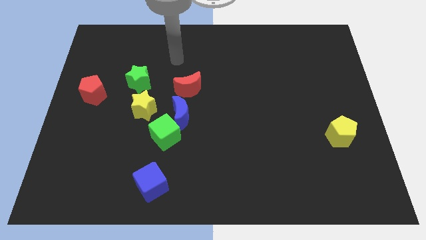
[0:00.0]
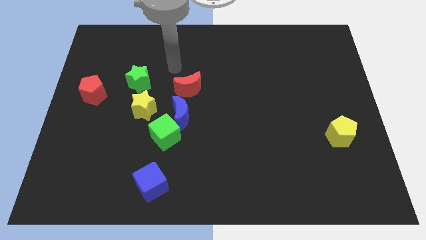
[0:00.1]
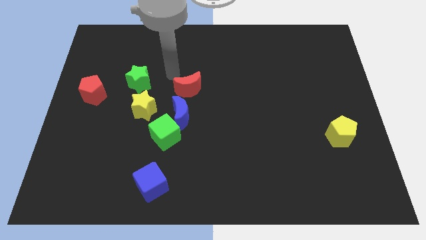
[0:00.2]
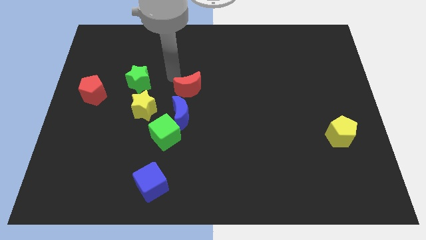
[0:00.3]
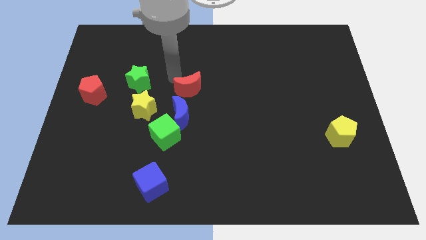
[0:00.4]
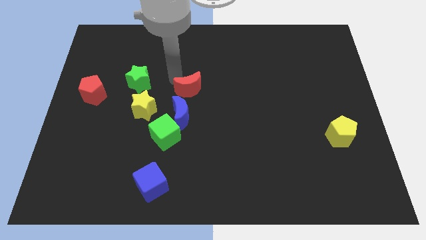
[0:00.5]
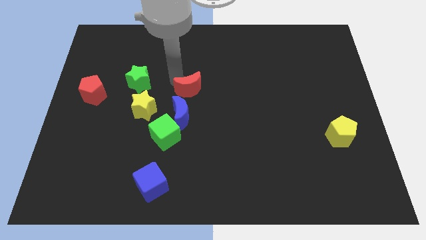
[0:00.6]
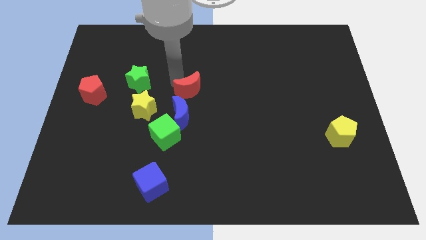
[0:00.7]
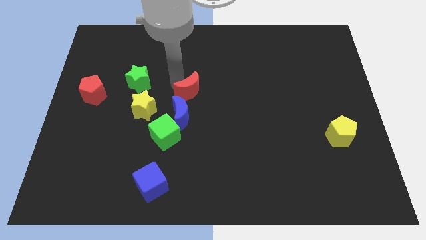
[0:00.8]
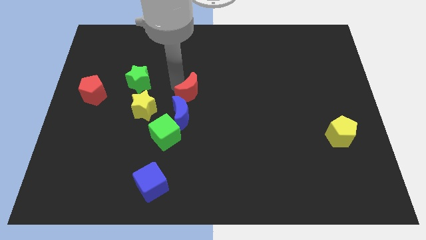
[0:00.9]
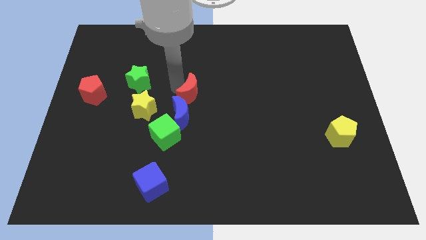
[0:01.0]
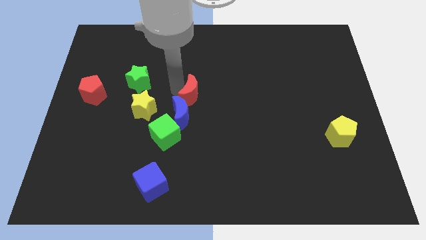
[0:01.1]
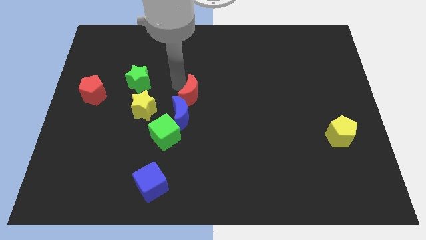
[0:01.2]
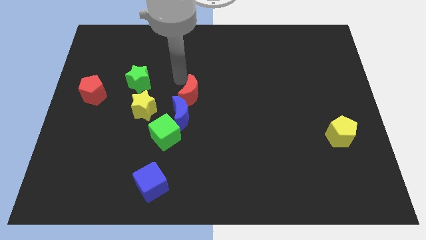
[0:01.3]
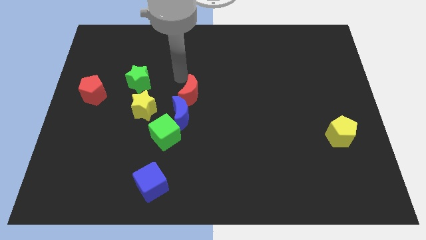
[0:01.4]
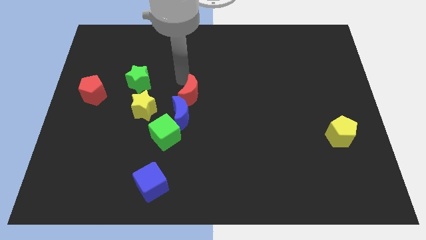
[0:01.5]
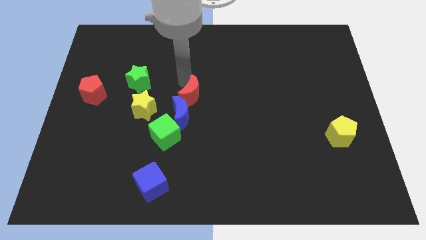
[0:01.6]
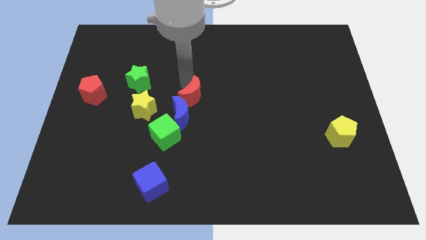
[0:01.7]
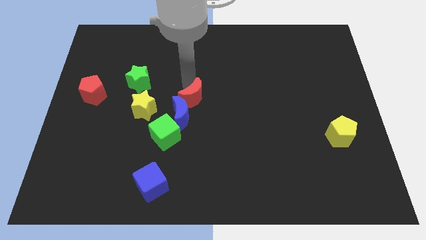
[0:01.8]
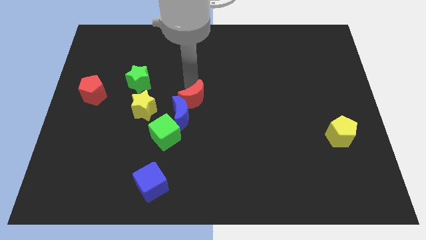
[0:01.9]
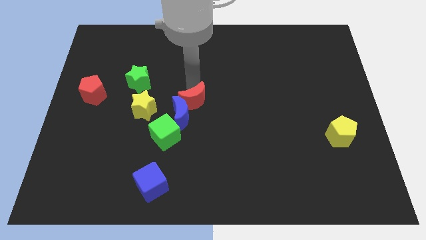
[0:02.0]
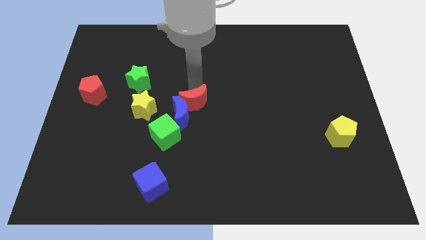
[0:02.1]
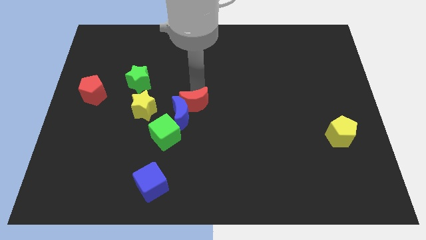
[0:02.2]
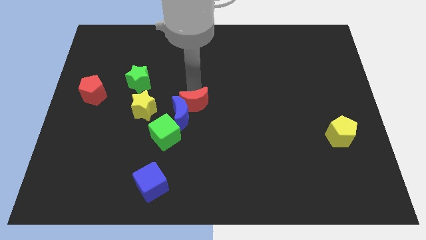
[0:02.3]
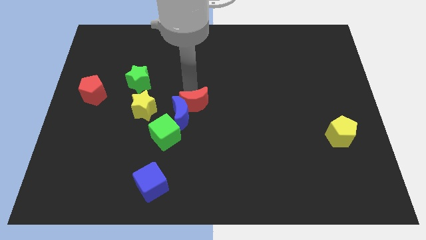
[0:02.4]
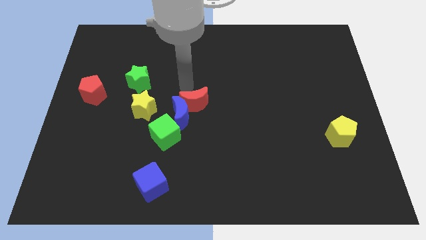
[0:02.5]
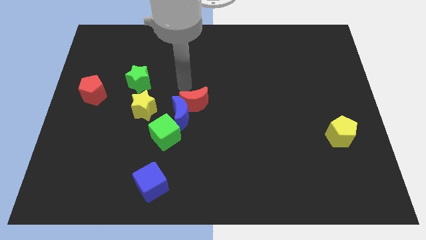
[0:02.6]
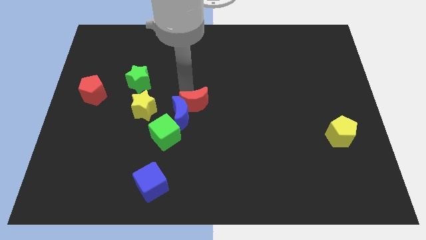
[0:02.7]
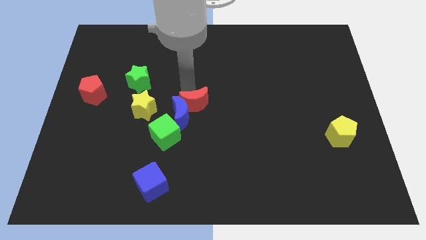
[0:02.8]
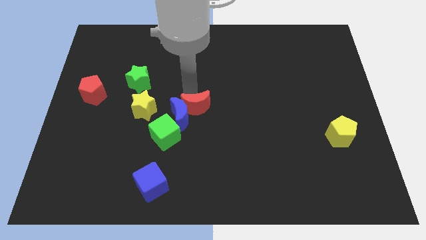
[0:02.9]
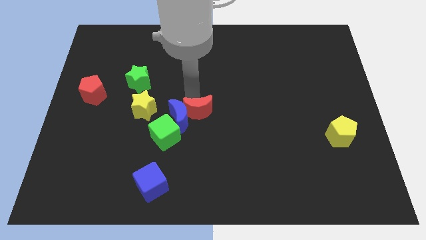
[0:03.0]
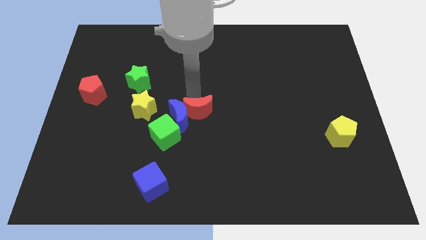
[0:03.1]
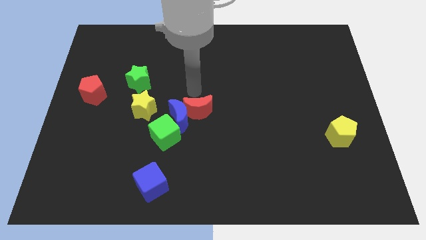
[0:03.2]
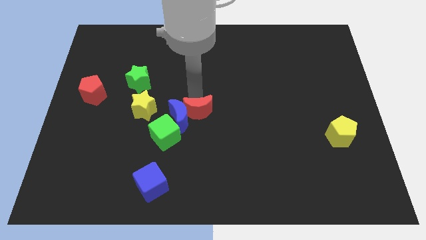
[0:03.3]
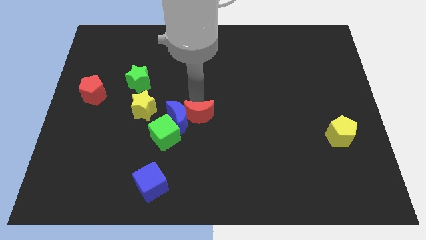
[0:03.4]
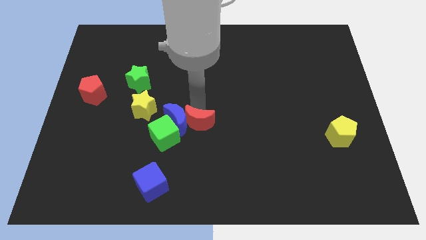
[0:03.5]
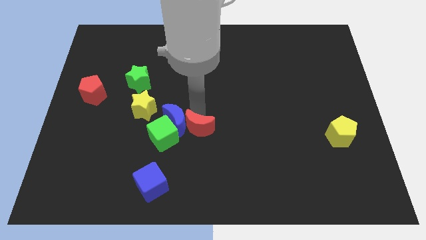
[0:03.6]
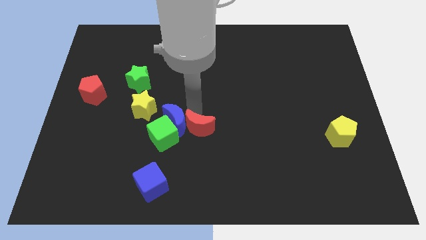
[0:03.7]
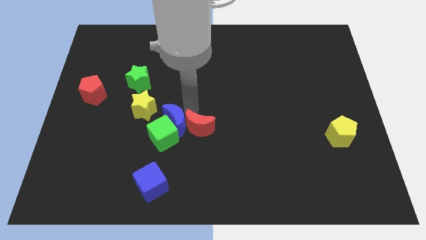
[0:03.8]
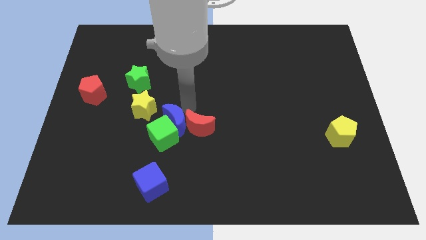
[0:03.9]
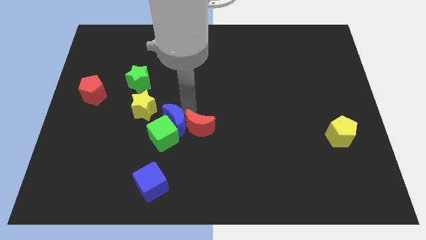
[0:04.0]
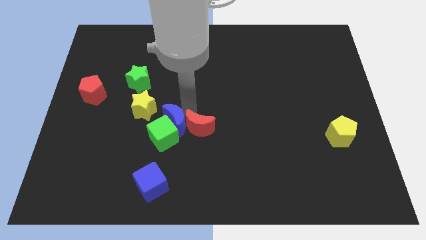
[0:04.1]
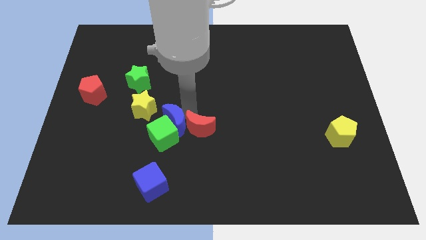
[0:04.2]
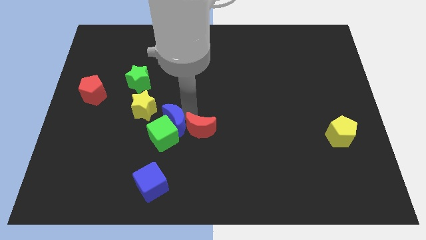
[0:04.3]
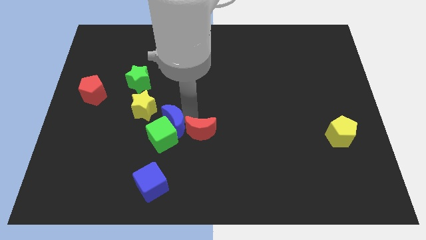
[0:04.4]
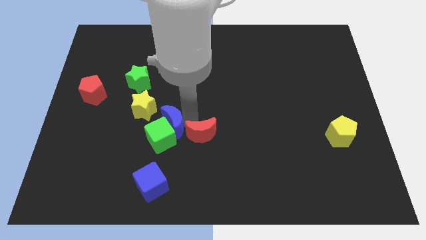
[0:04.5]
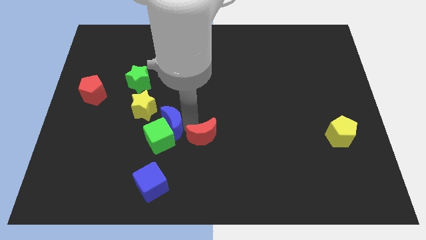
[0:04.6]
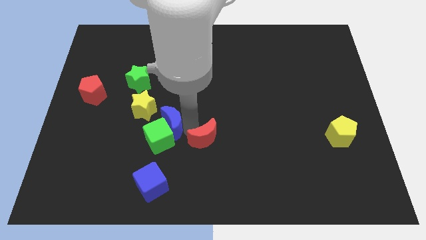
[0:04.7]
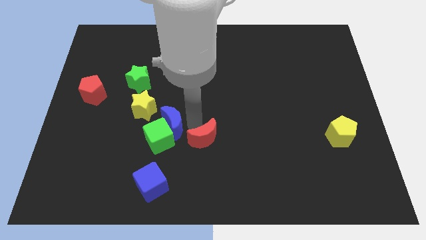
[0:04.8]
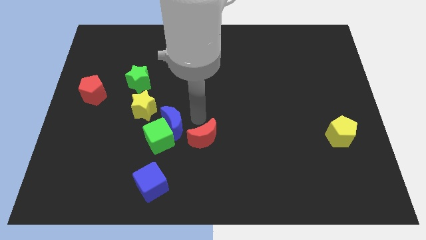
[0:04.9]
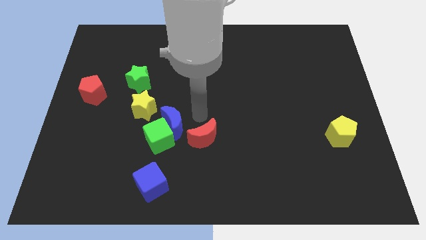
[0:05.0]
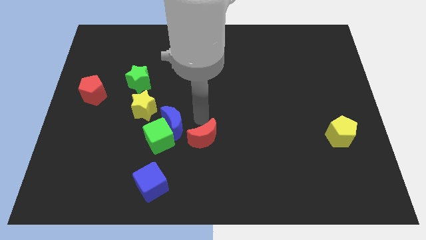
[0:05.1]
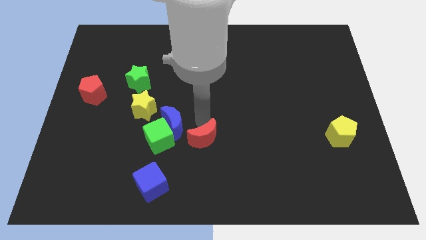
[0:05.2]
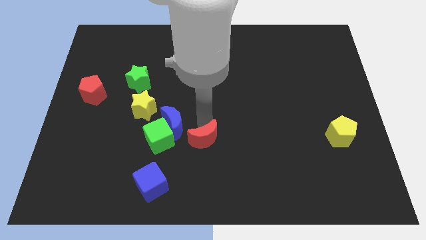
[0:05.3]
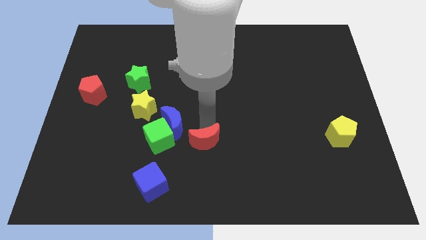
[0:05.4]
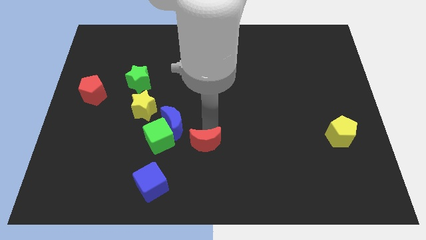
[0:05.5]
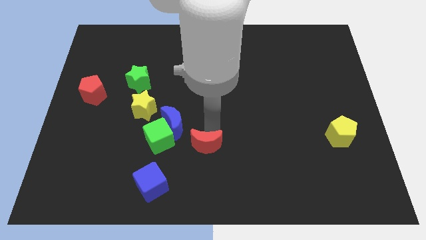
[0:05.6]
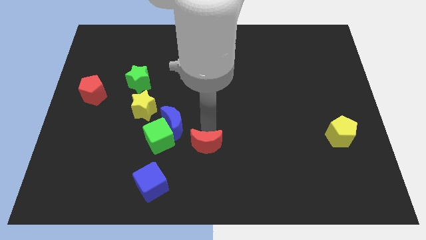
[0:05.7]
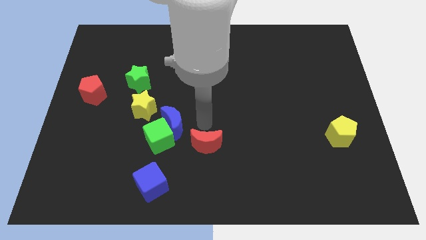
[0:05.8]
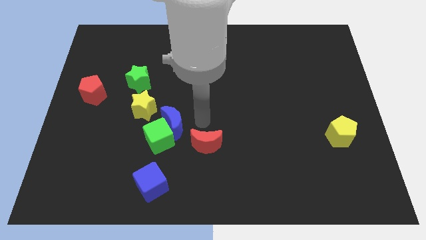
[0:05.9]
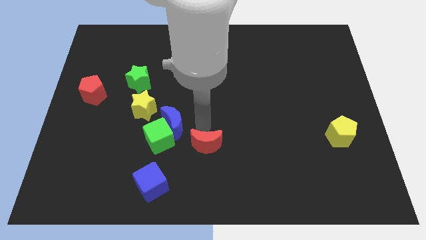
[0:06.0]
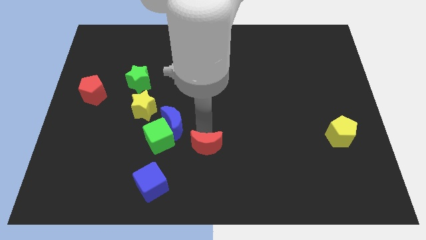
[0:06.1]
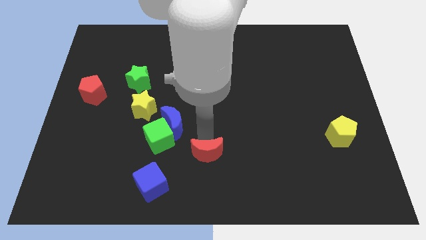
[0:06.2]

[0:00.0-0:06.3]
slide the red moon to the bottom

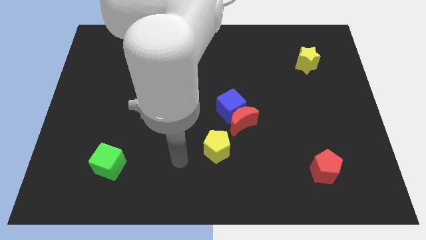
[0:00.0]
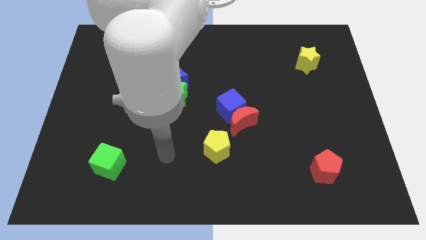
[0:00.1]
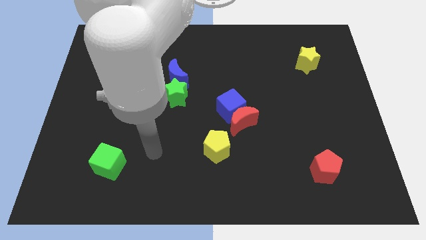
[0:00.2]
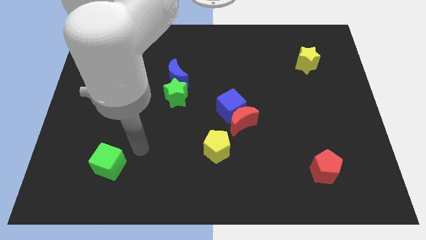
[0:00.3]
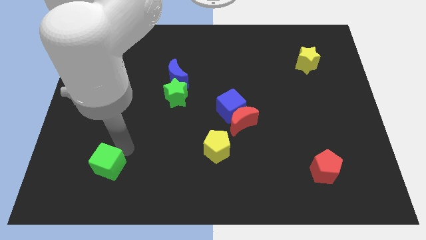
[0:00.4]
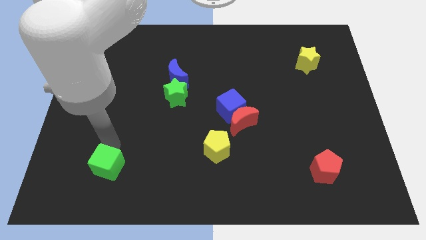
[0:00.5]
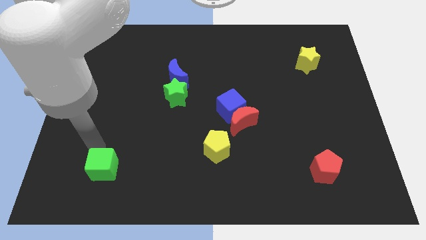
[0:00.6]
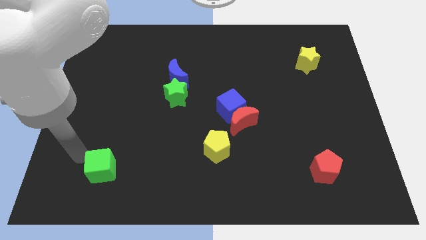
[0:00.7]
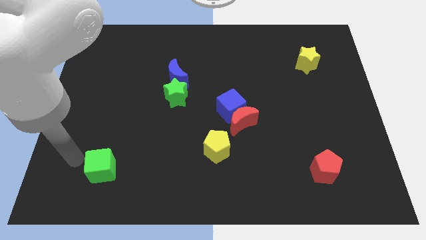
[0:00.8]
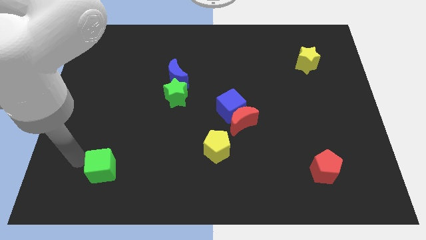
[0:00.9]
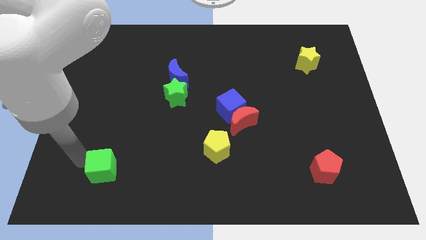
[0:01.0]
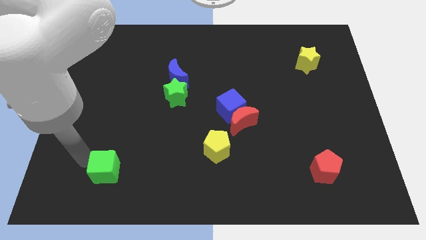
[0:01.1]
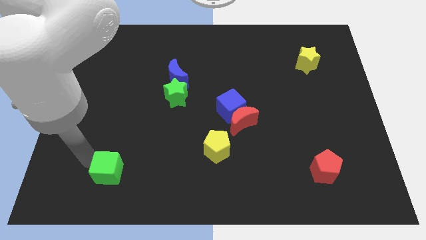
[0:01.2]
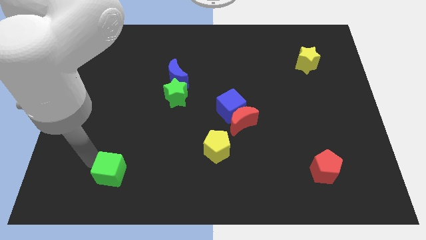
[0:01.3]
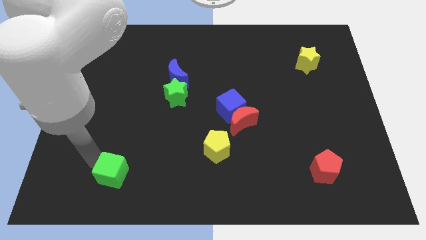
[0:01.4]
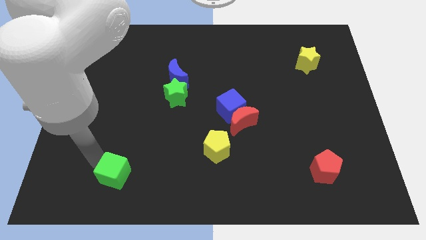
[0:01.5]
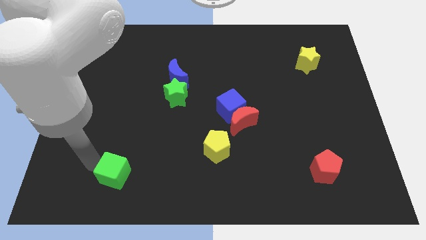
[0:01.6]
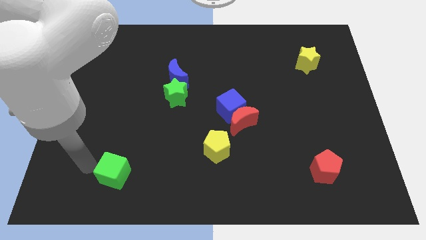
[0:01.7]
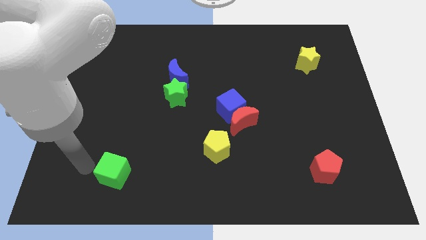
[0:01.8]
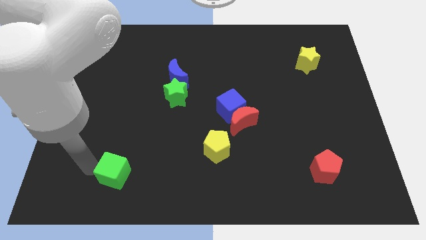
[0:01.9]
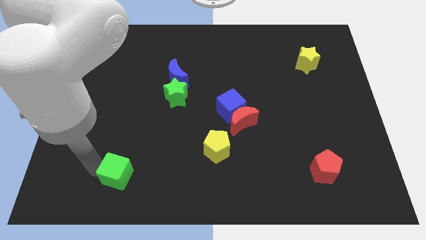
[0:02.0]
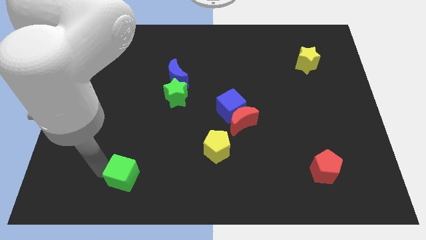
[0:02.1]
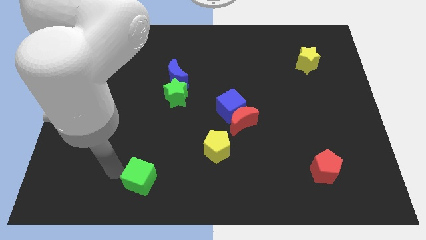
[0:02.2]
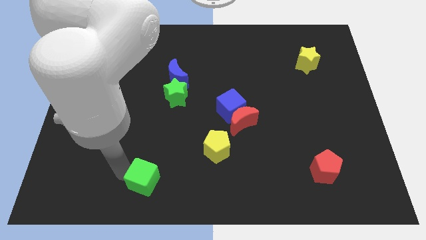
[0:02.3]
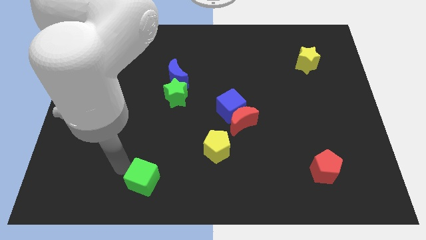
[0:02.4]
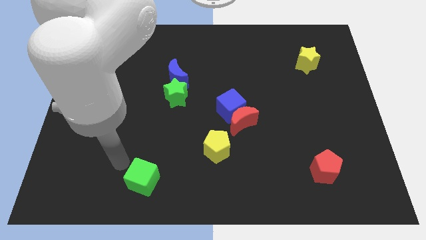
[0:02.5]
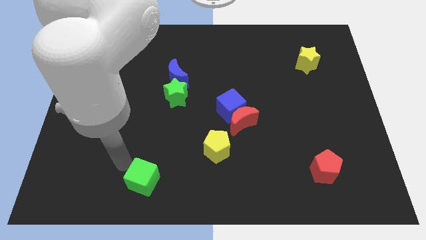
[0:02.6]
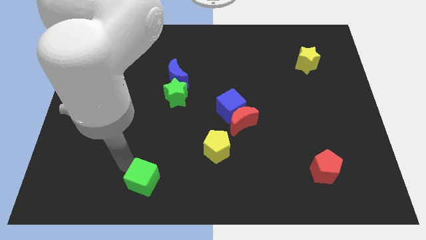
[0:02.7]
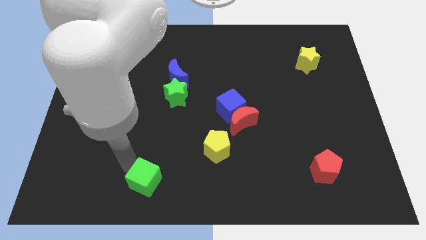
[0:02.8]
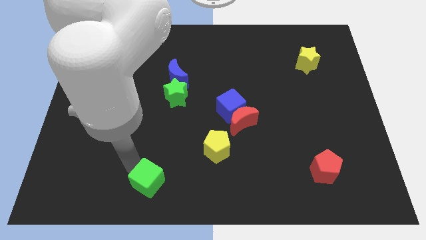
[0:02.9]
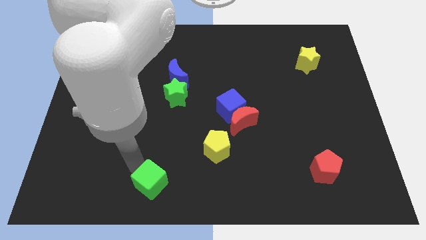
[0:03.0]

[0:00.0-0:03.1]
push the green cube to the bottom
